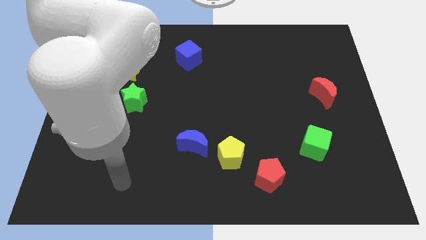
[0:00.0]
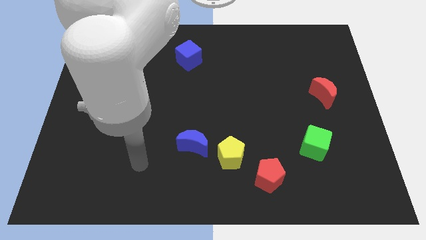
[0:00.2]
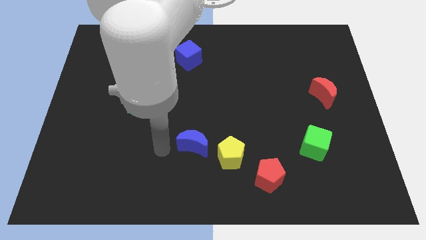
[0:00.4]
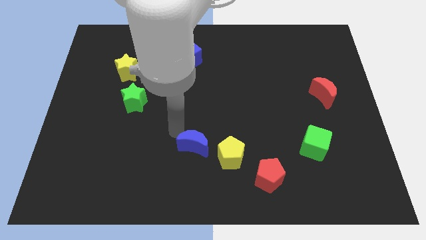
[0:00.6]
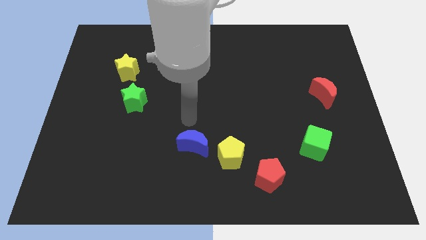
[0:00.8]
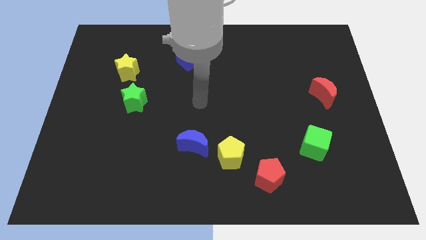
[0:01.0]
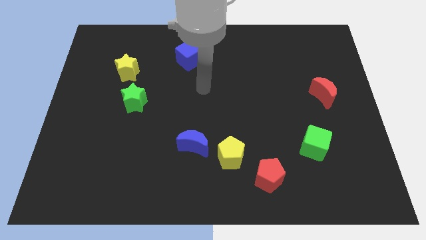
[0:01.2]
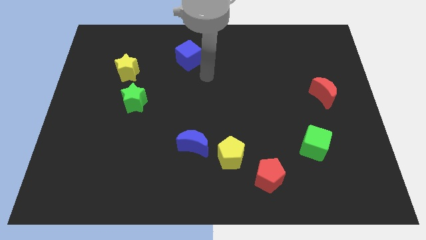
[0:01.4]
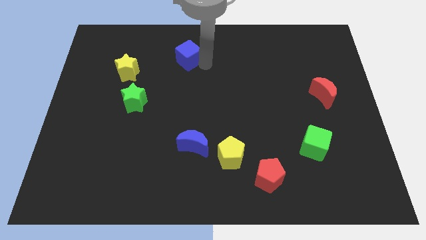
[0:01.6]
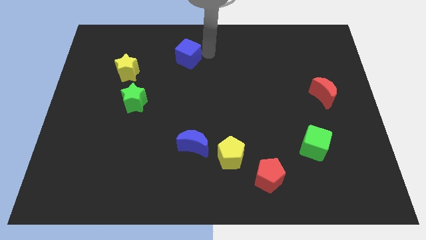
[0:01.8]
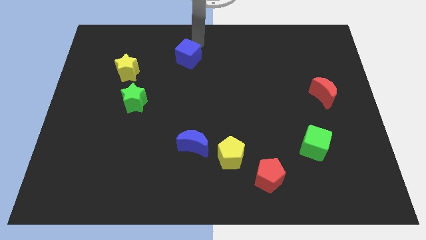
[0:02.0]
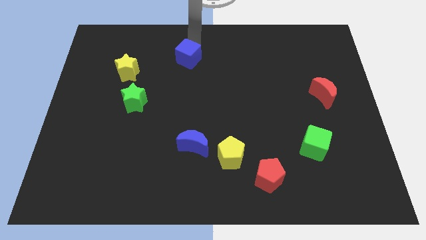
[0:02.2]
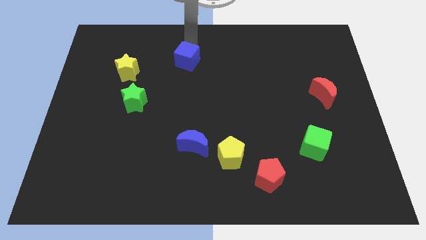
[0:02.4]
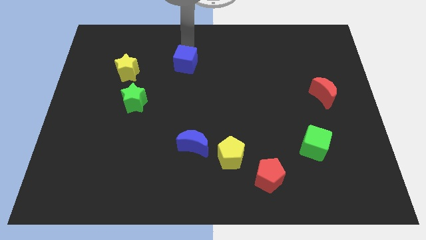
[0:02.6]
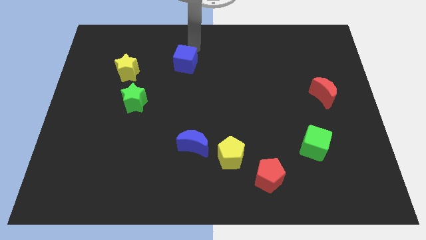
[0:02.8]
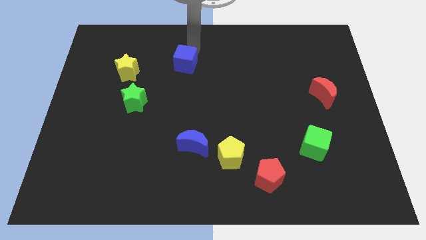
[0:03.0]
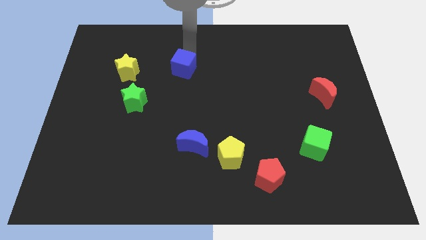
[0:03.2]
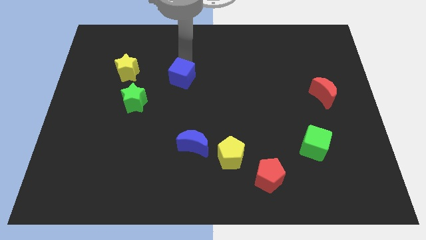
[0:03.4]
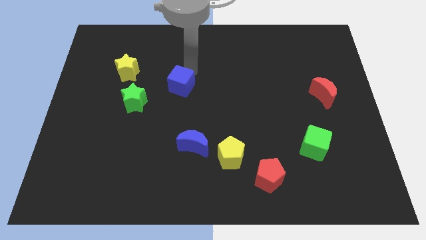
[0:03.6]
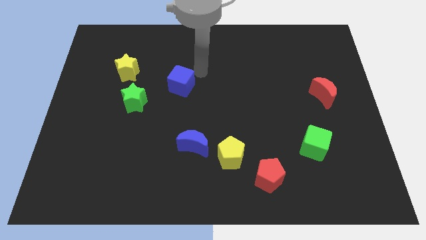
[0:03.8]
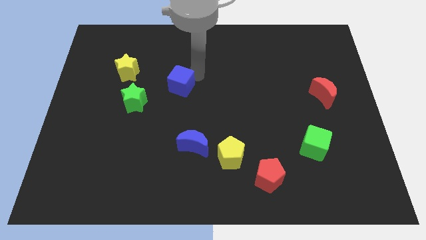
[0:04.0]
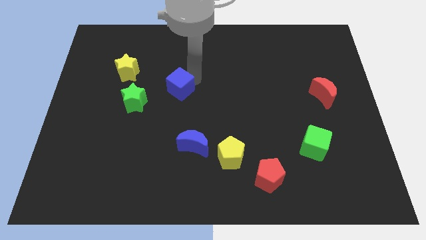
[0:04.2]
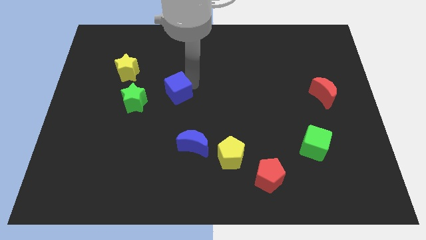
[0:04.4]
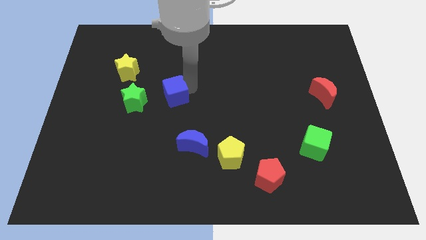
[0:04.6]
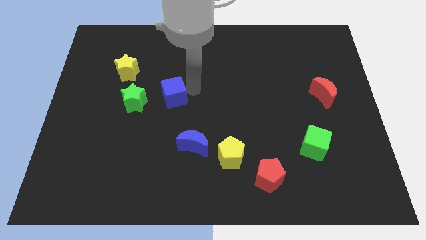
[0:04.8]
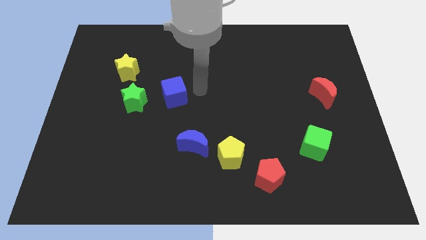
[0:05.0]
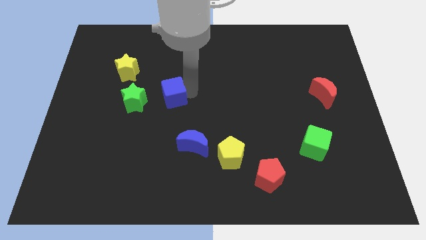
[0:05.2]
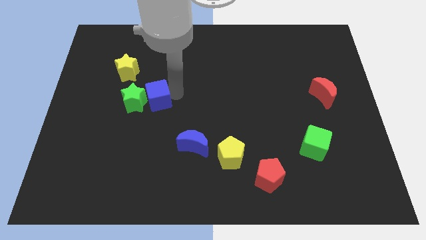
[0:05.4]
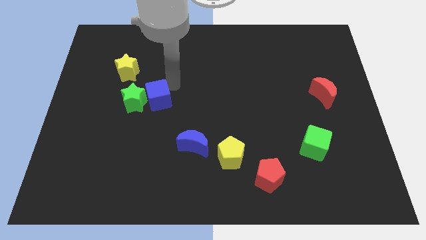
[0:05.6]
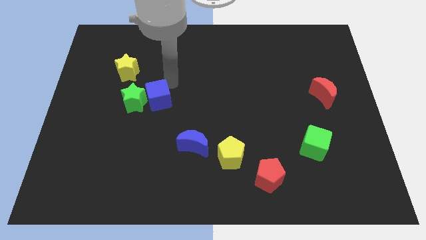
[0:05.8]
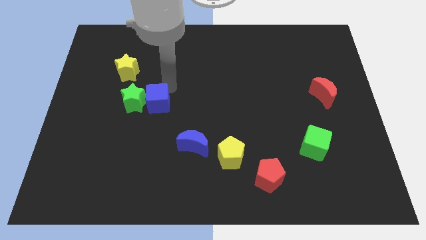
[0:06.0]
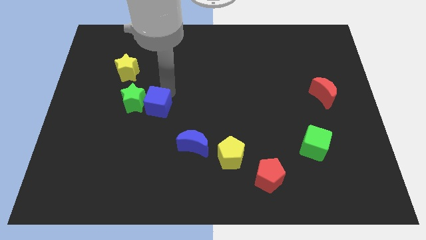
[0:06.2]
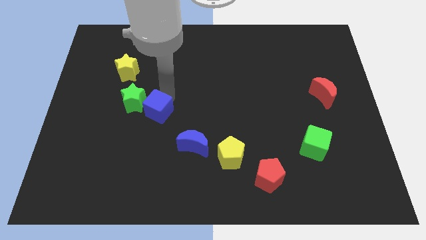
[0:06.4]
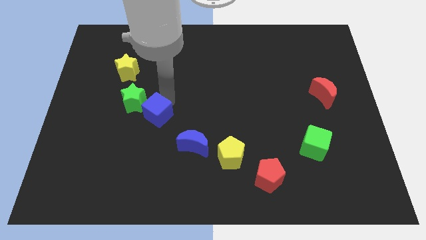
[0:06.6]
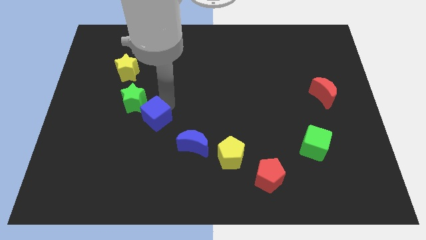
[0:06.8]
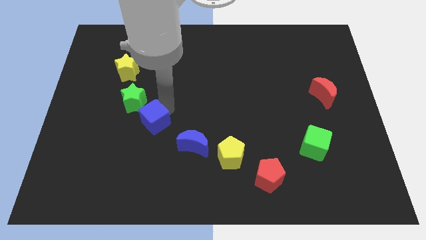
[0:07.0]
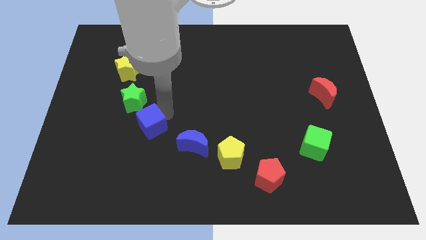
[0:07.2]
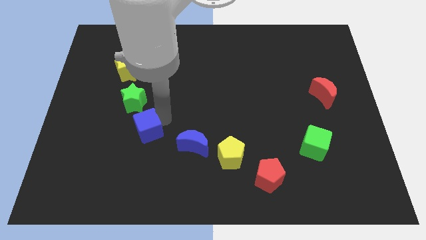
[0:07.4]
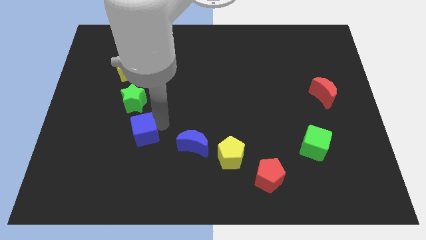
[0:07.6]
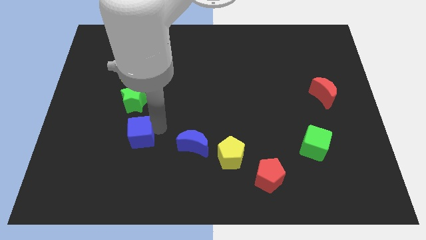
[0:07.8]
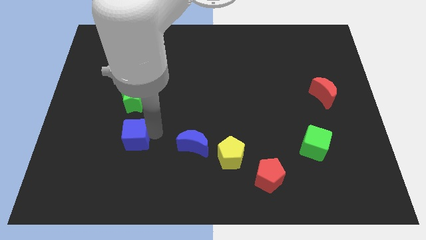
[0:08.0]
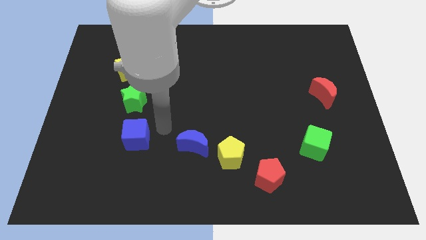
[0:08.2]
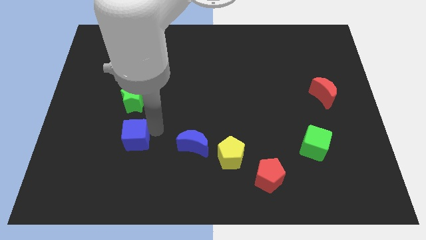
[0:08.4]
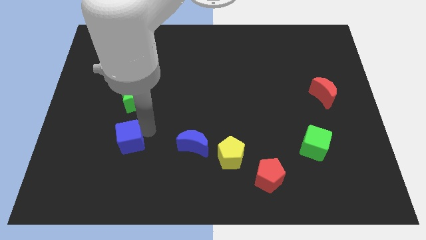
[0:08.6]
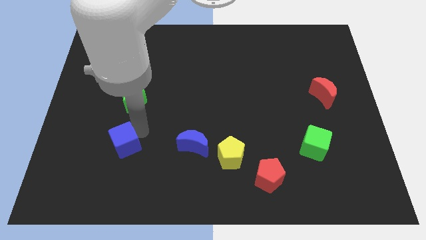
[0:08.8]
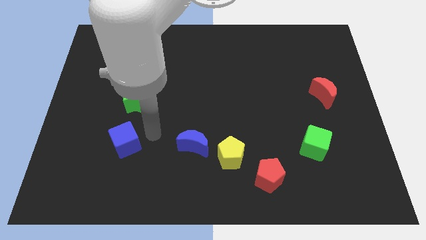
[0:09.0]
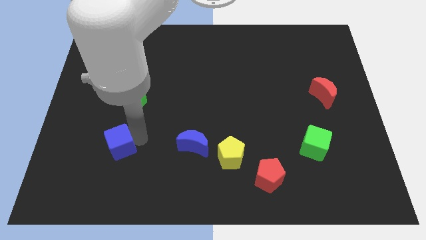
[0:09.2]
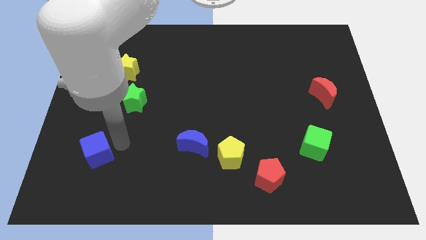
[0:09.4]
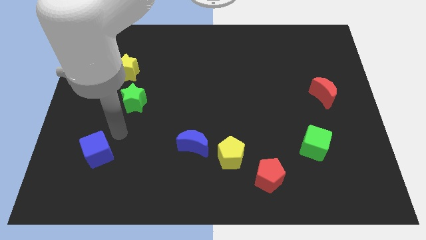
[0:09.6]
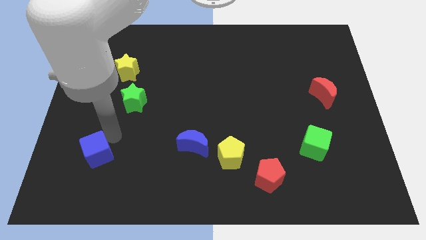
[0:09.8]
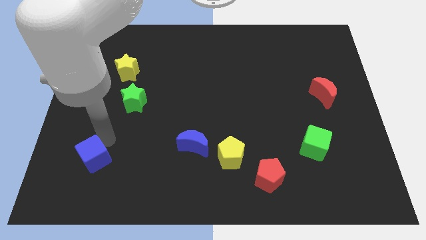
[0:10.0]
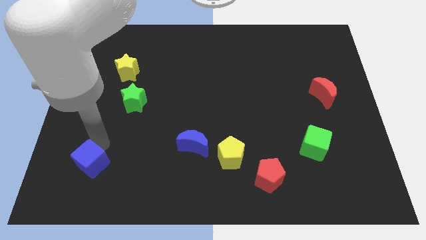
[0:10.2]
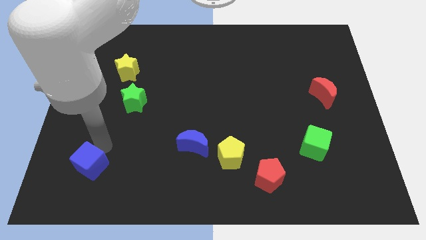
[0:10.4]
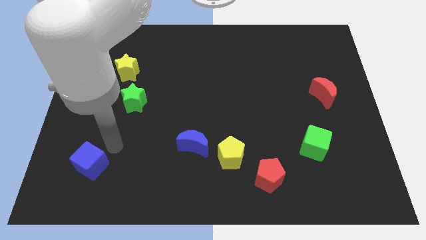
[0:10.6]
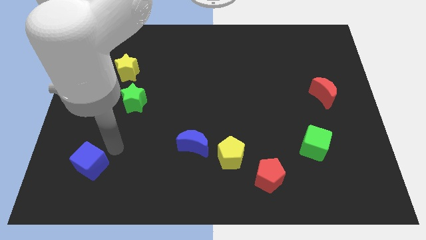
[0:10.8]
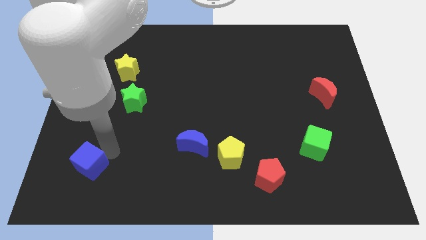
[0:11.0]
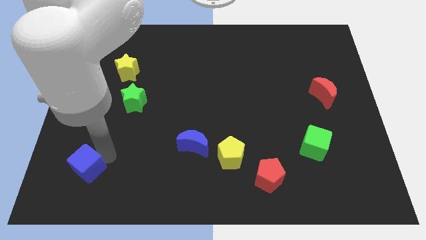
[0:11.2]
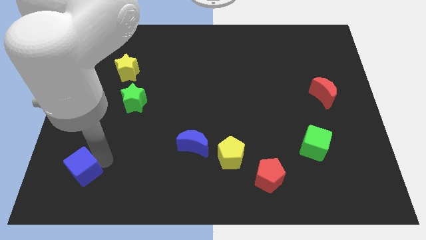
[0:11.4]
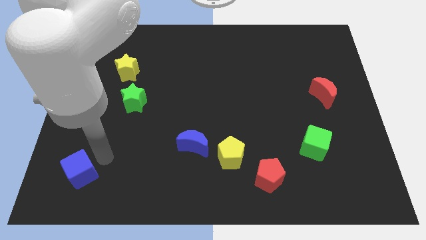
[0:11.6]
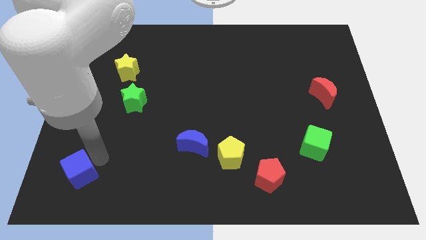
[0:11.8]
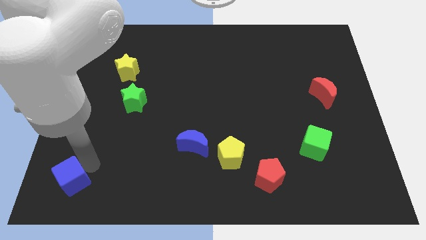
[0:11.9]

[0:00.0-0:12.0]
push the blue cube to the lower left corner
